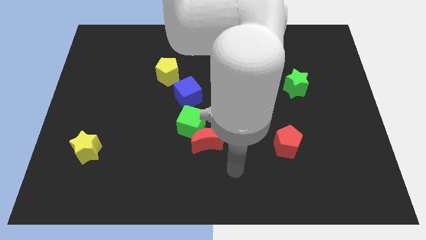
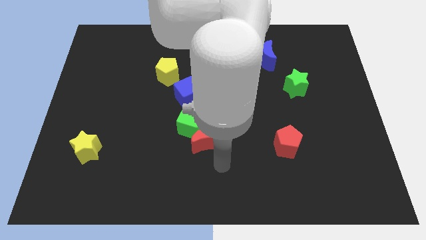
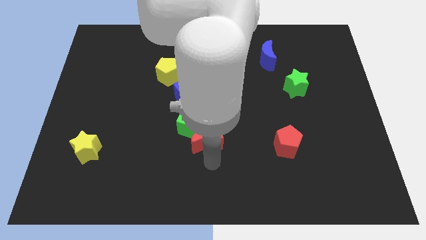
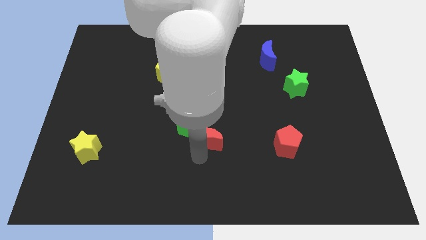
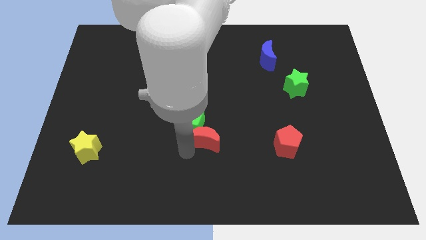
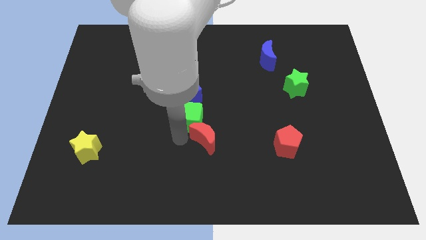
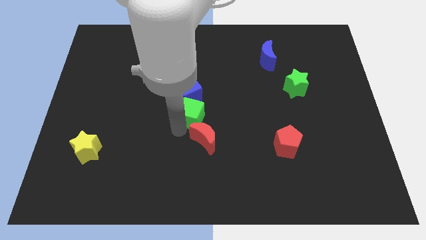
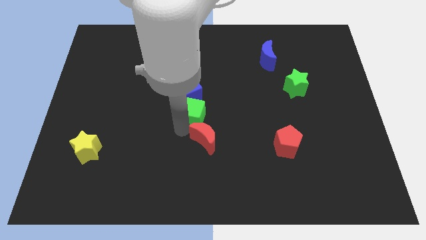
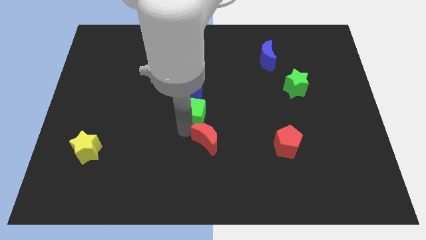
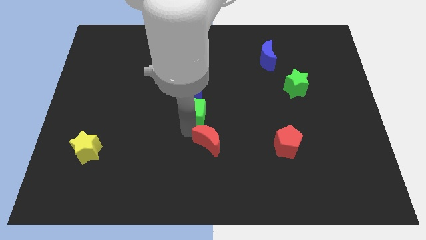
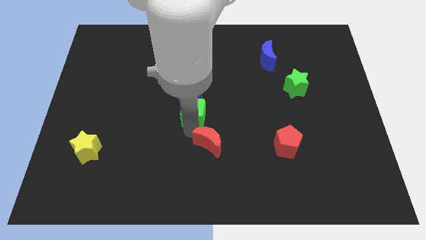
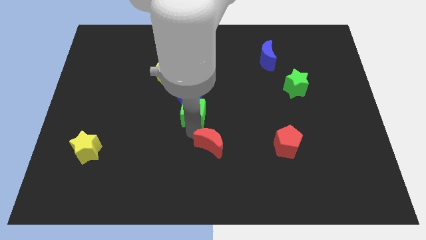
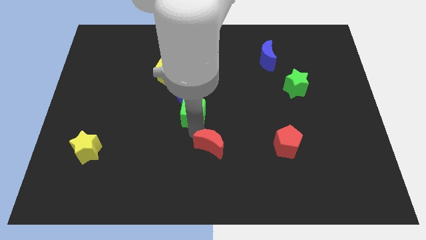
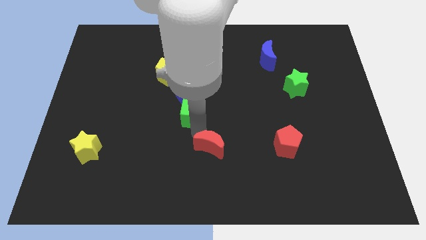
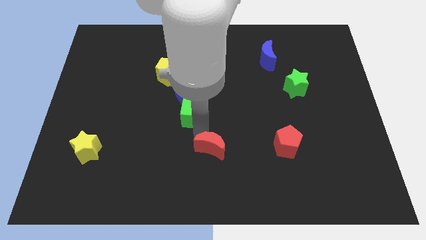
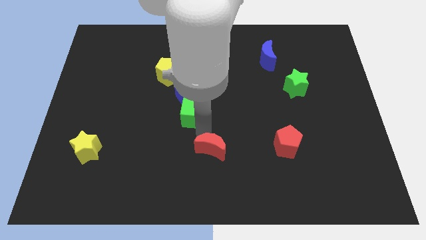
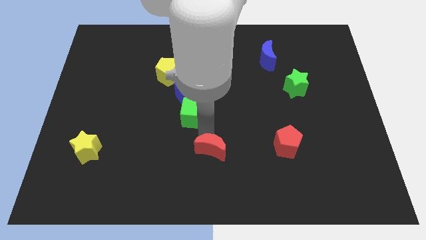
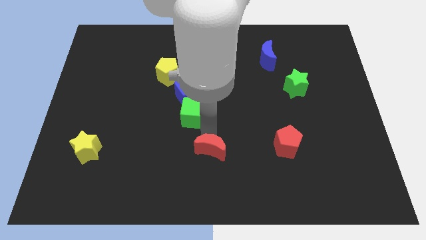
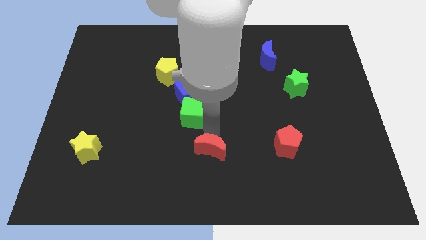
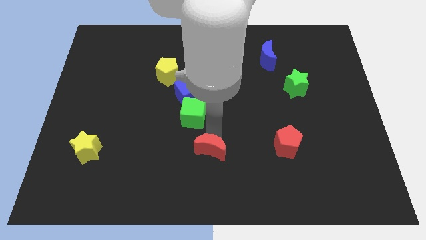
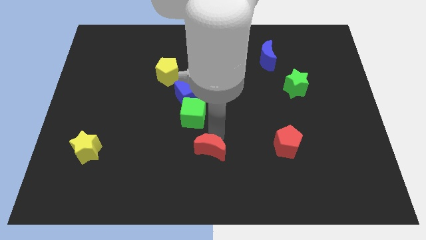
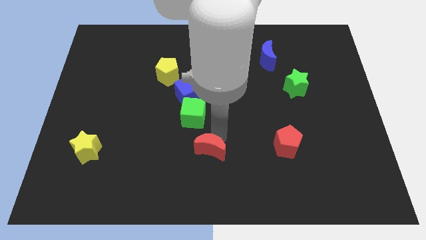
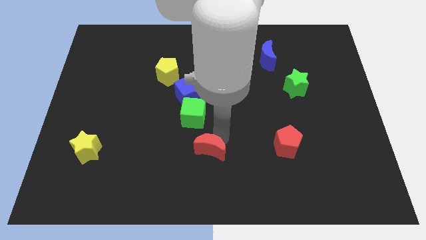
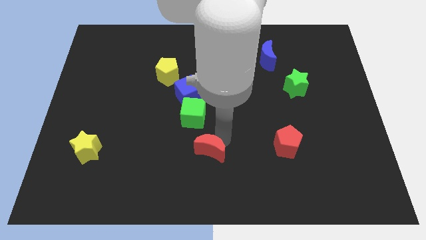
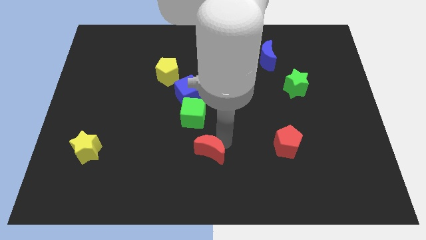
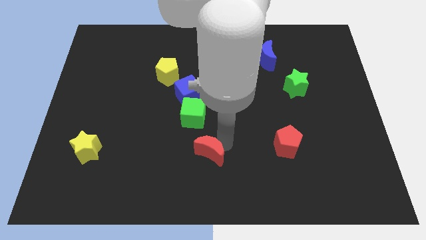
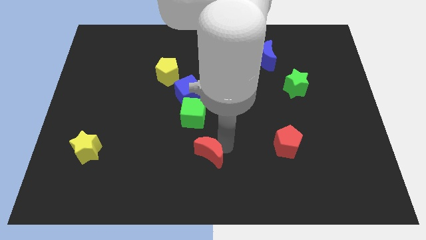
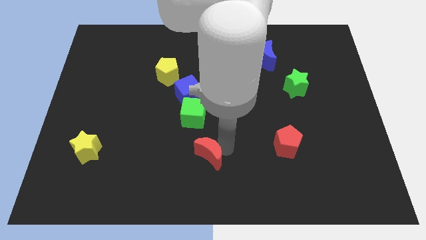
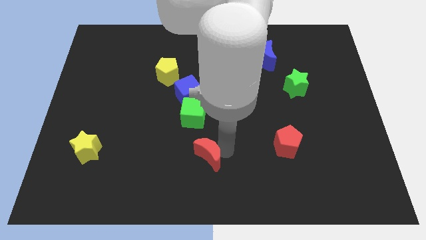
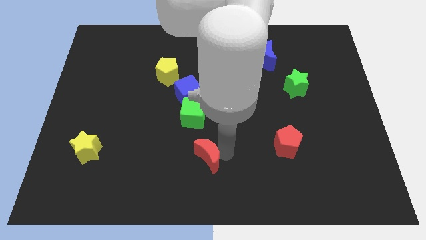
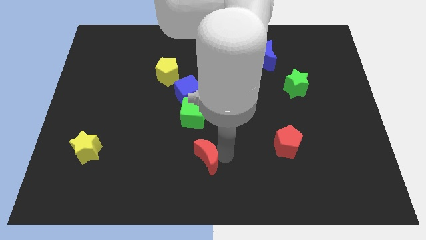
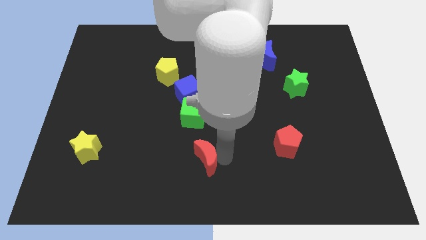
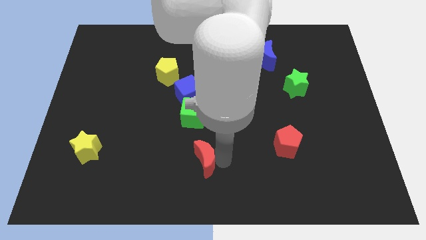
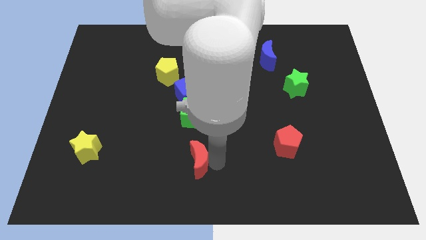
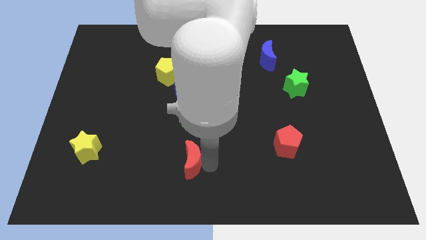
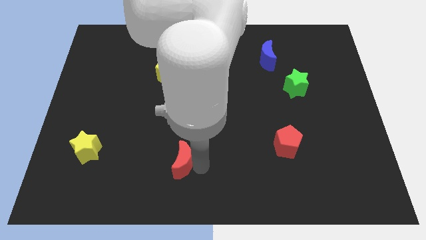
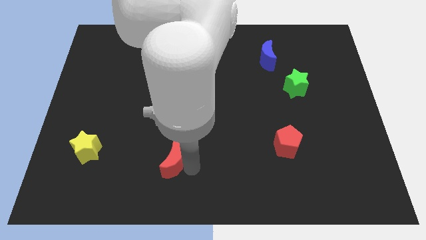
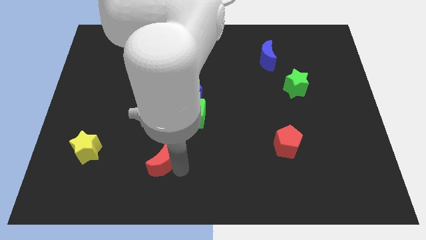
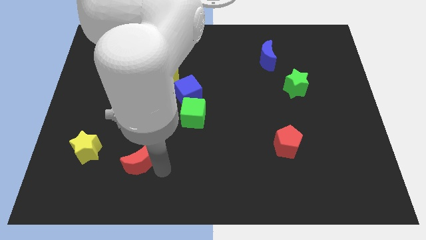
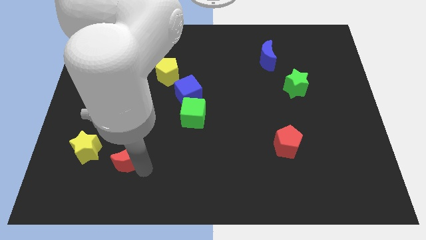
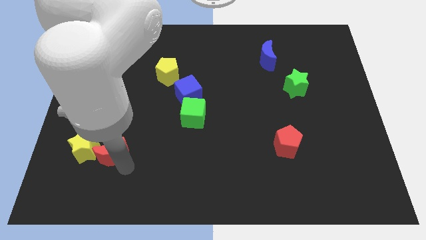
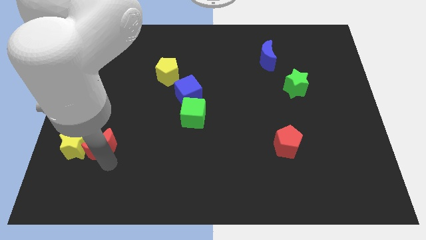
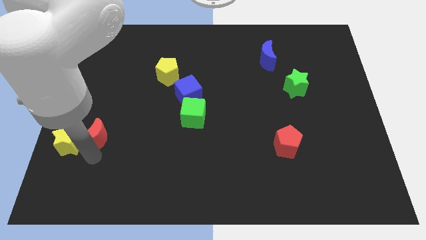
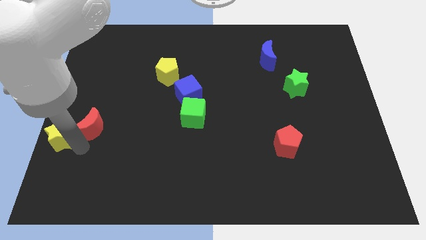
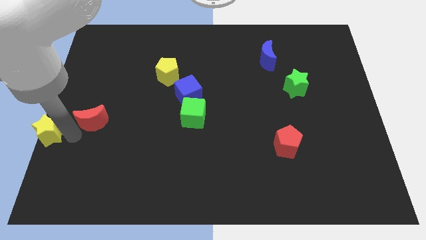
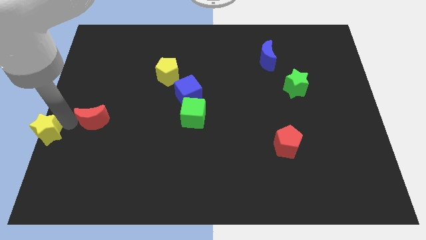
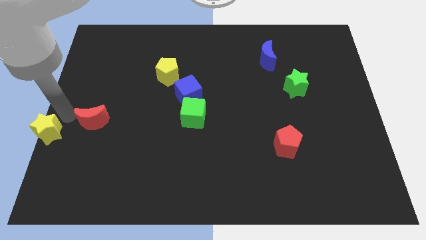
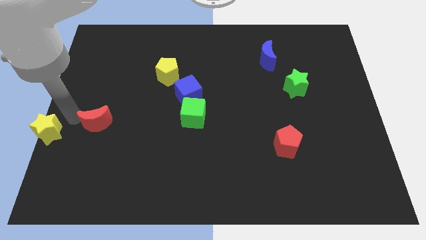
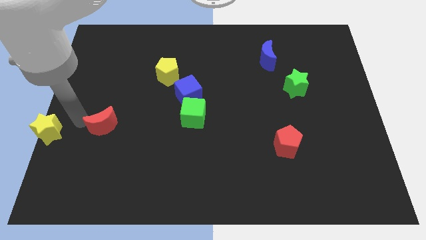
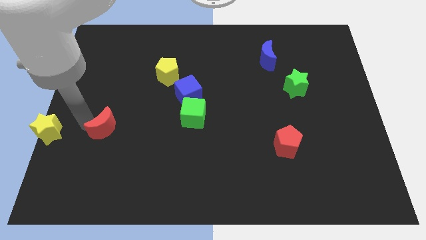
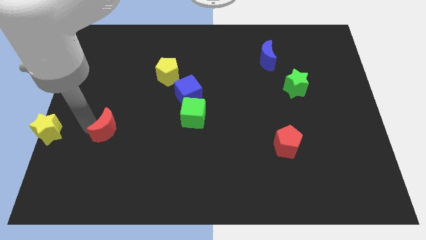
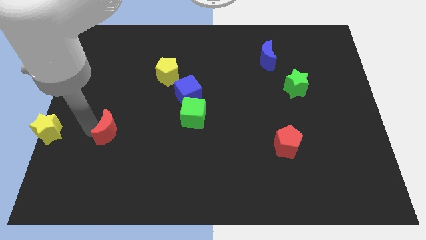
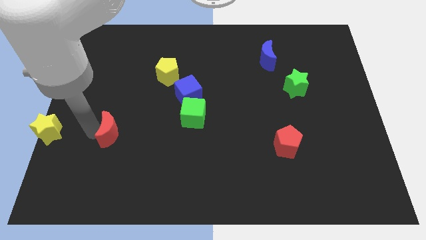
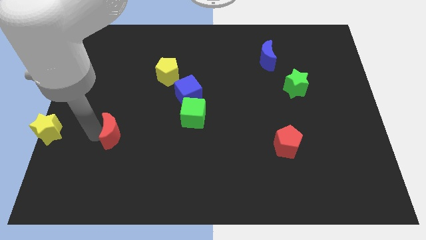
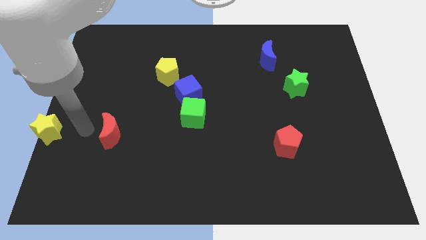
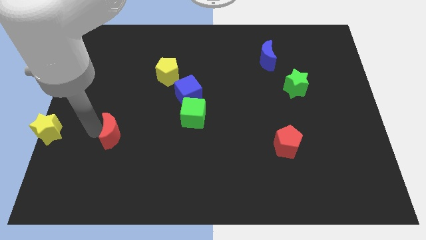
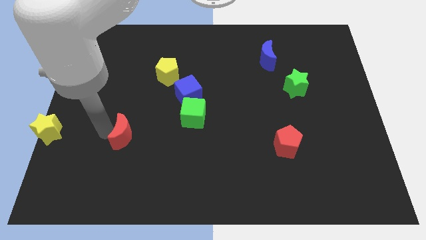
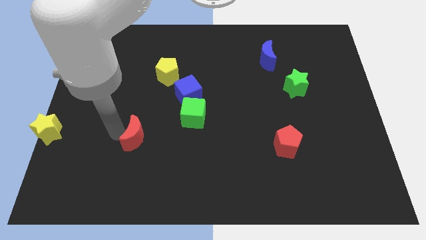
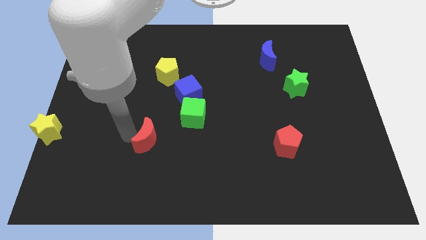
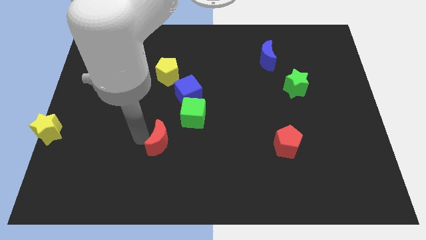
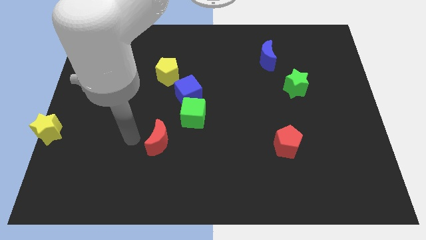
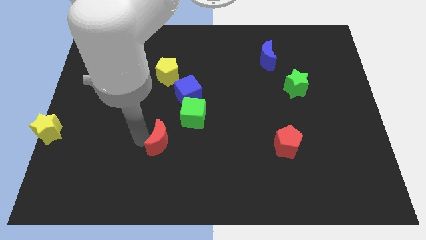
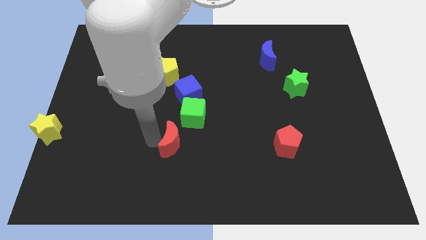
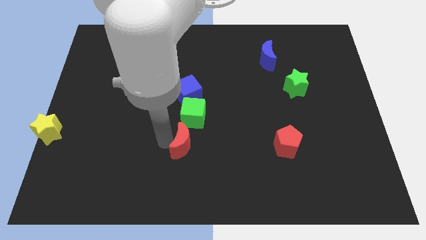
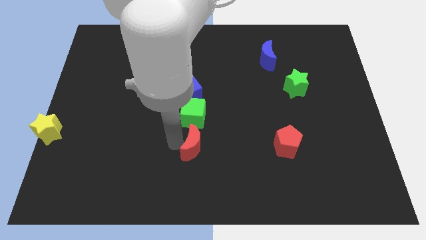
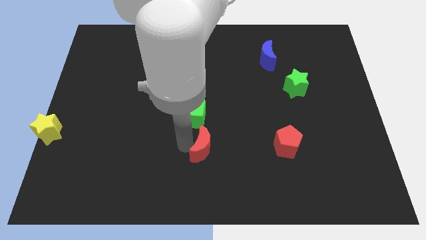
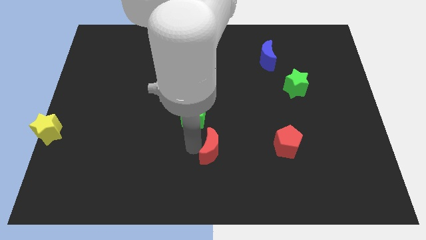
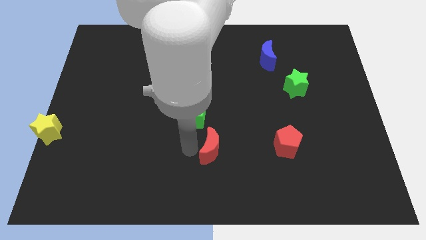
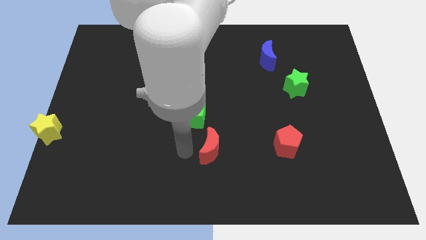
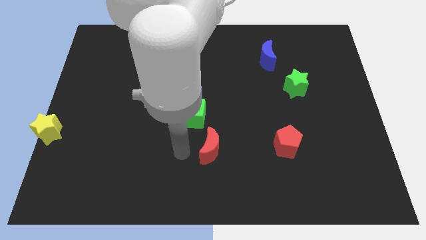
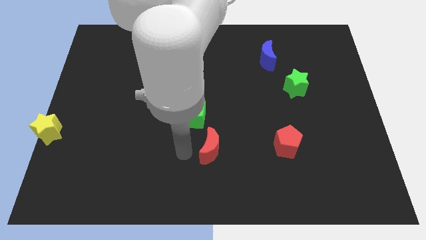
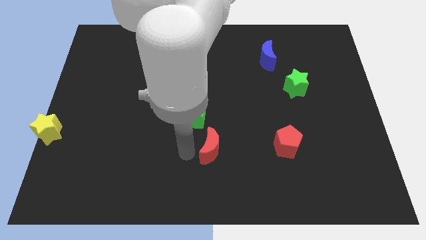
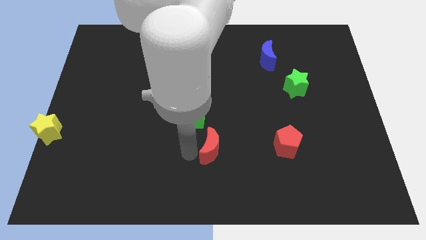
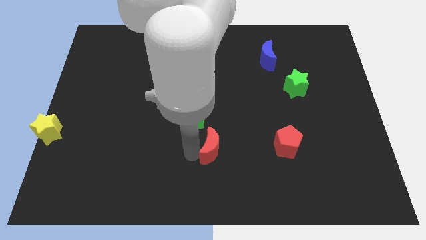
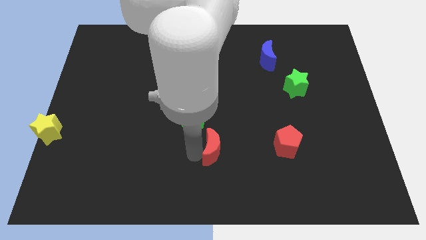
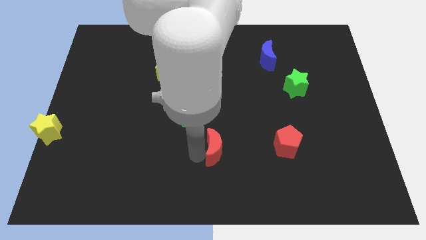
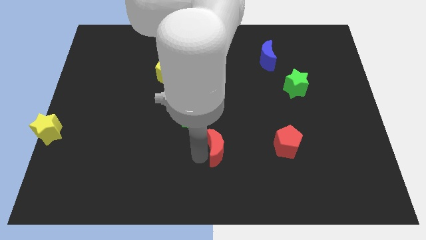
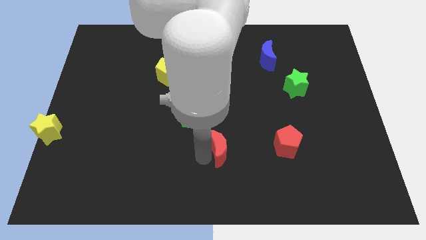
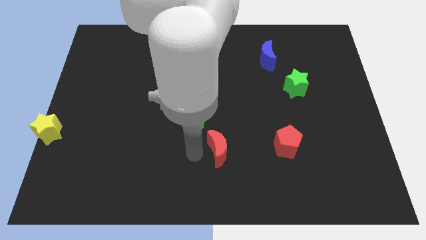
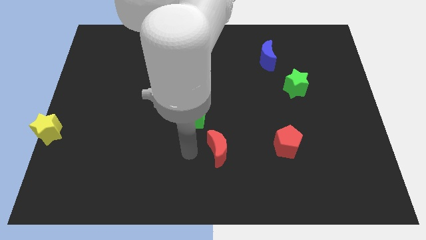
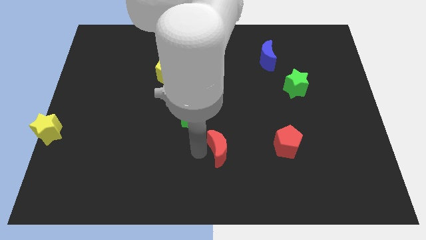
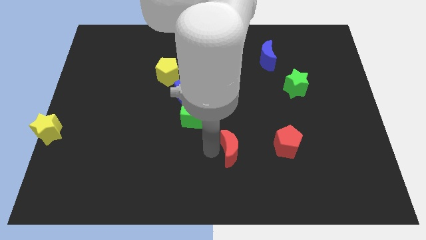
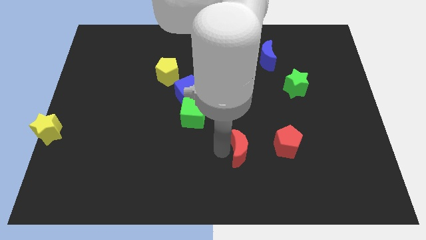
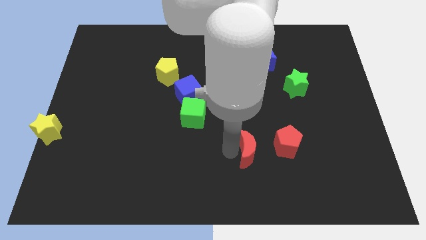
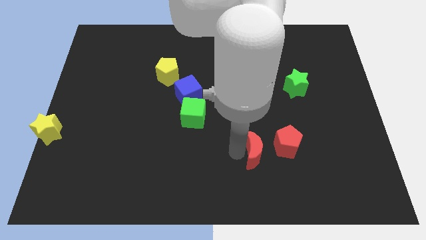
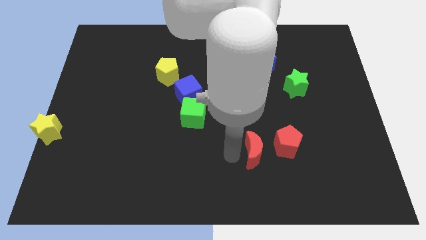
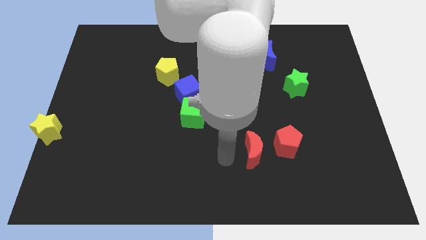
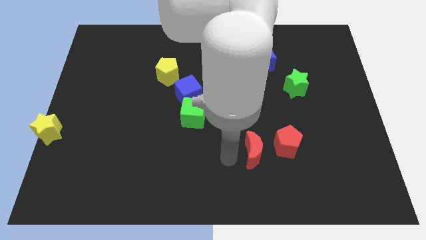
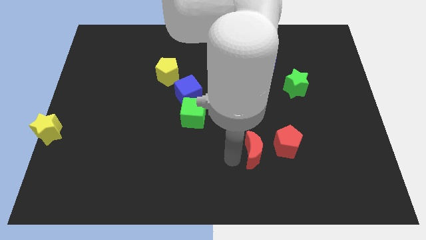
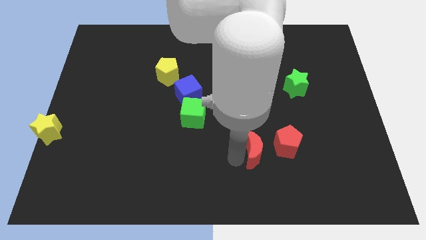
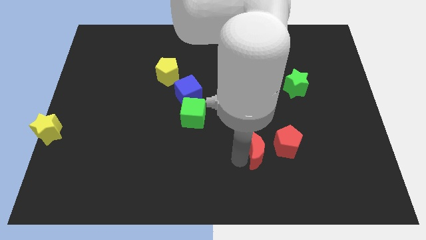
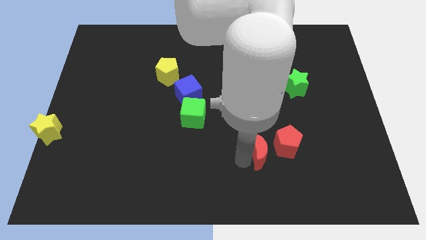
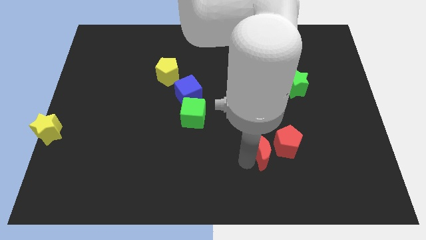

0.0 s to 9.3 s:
slide the red moon to the red pentagon
